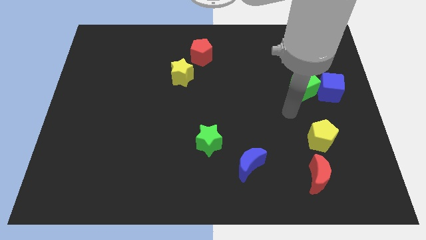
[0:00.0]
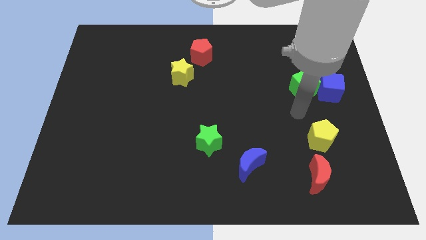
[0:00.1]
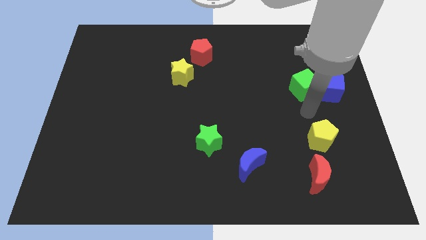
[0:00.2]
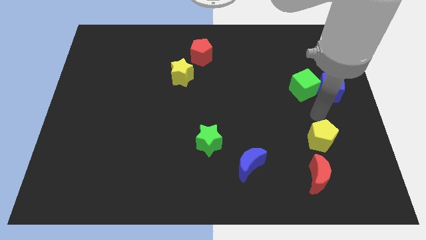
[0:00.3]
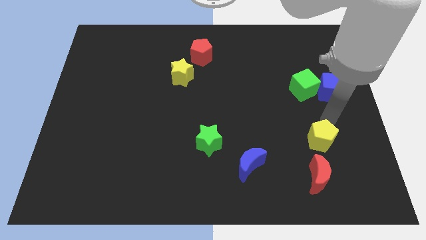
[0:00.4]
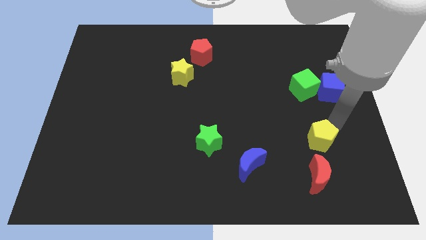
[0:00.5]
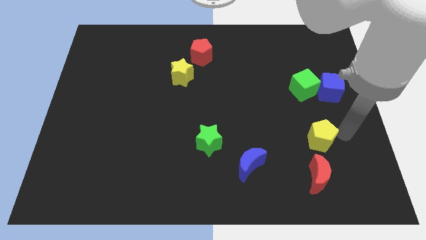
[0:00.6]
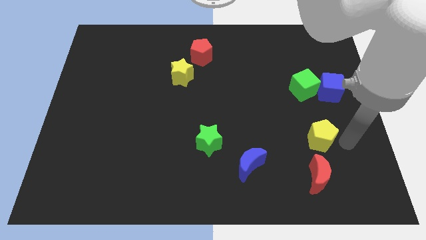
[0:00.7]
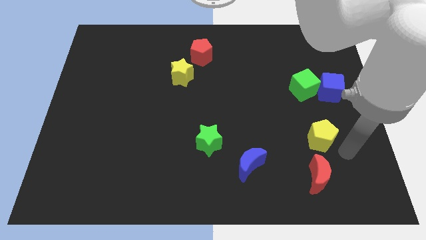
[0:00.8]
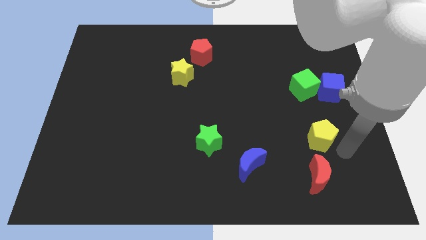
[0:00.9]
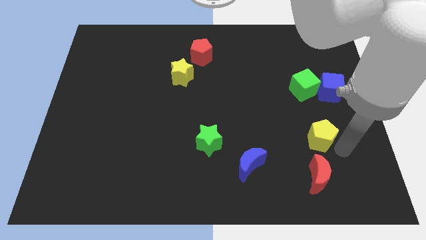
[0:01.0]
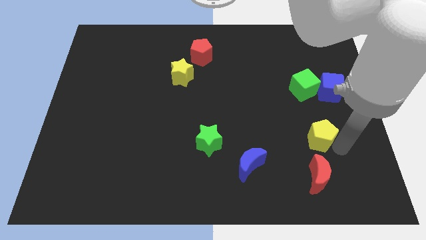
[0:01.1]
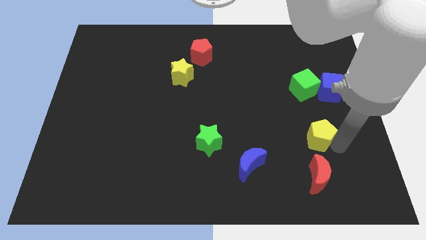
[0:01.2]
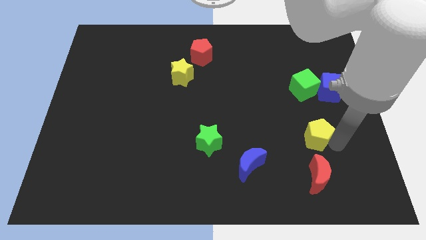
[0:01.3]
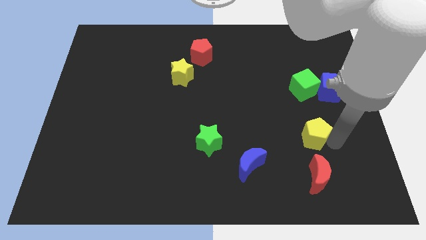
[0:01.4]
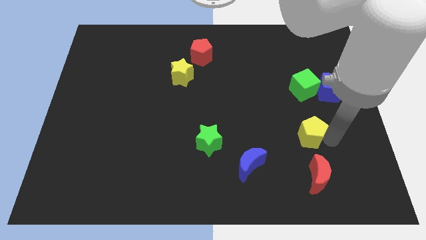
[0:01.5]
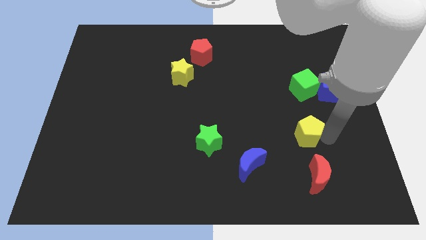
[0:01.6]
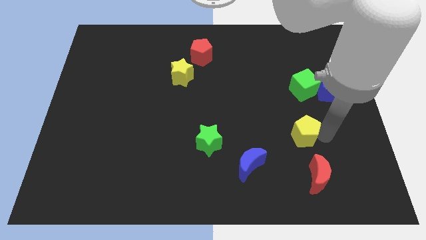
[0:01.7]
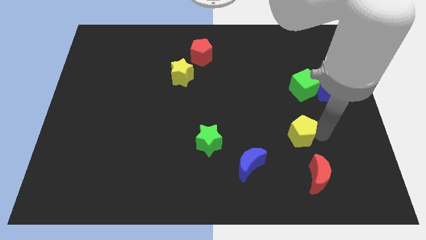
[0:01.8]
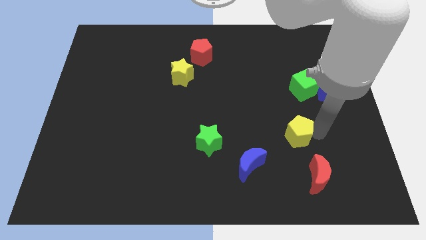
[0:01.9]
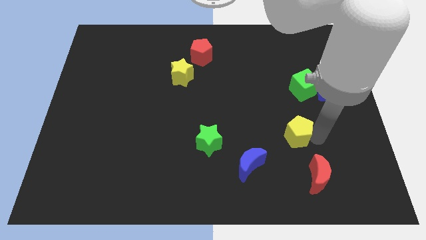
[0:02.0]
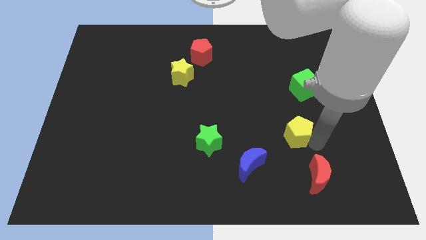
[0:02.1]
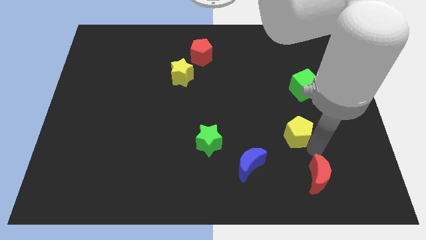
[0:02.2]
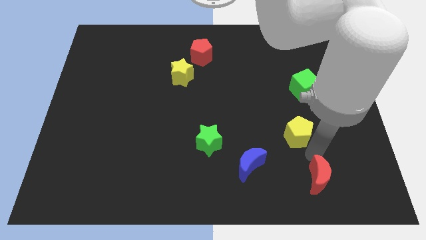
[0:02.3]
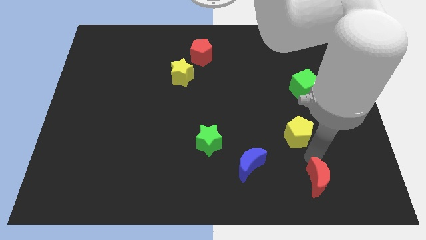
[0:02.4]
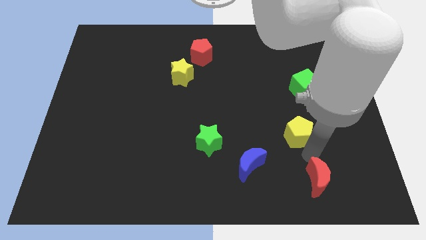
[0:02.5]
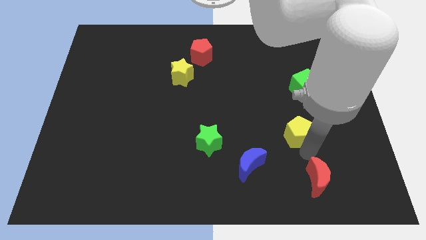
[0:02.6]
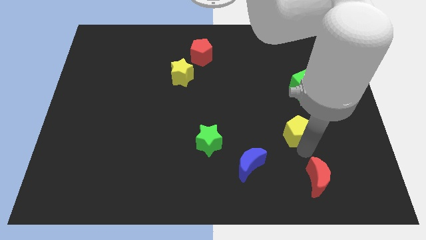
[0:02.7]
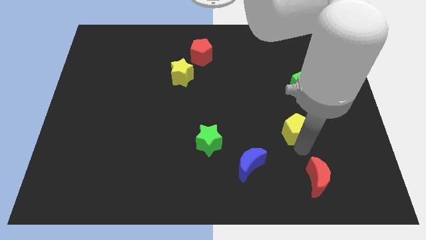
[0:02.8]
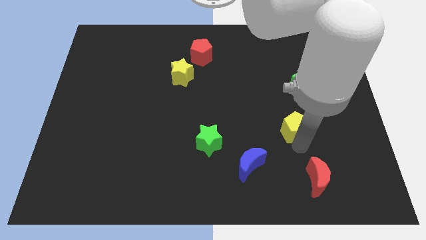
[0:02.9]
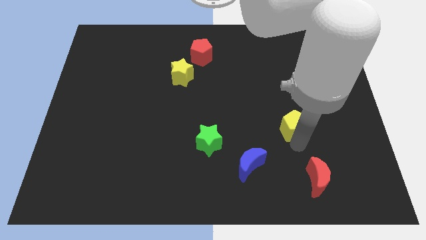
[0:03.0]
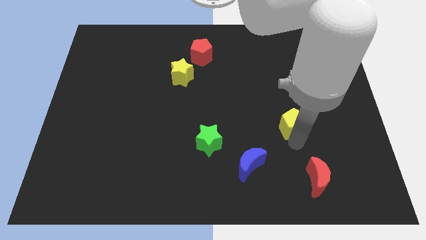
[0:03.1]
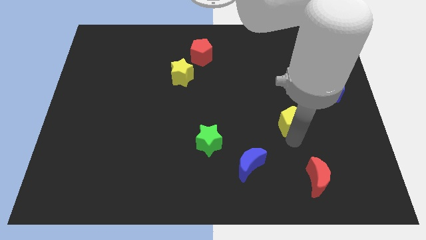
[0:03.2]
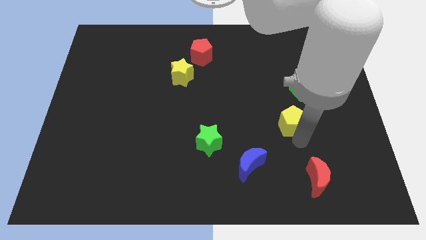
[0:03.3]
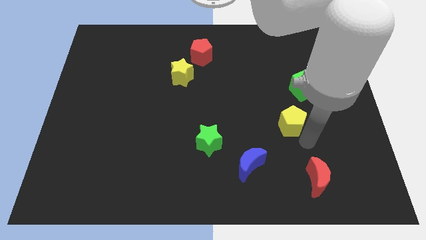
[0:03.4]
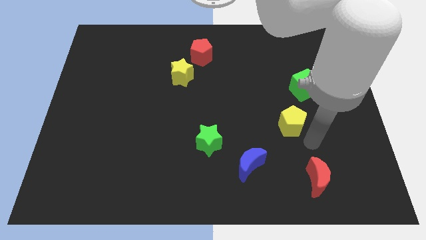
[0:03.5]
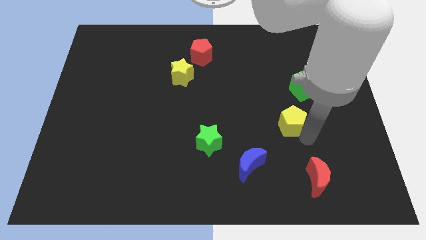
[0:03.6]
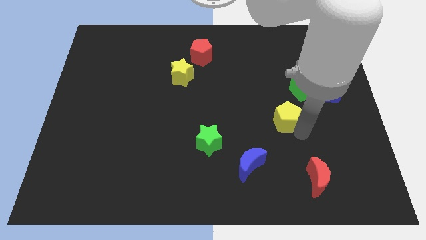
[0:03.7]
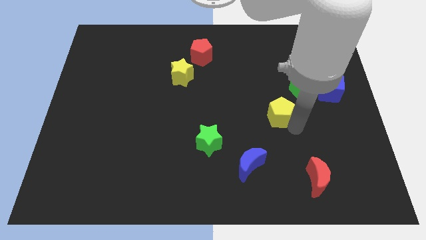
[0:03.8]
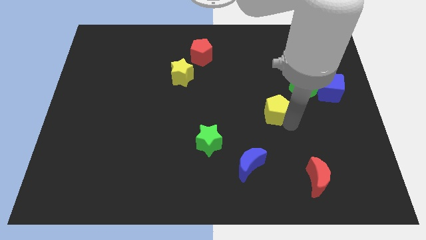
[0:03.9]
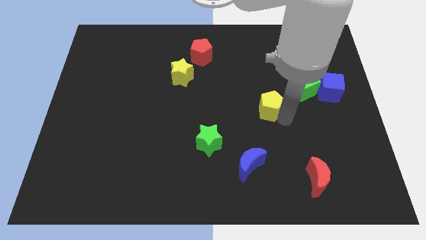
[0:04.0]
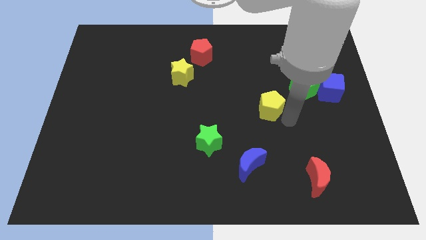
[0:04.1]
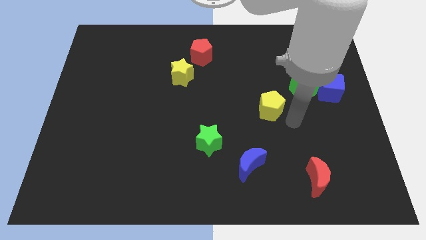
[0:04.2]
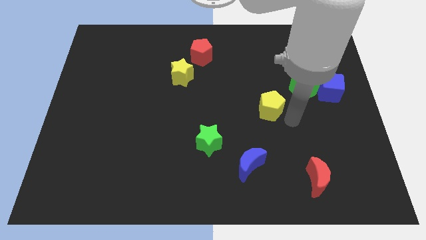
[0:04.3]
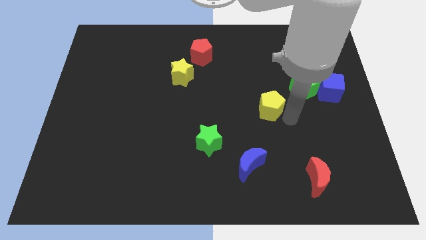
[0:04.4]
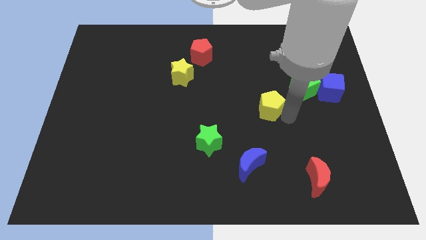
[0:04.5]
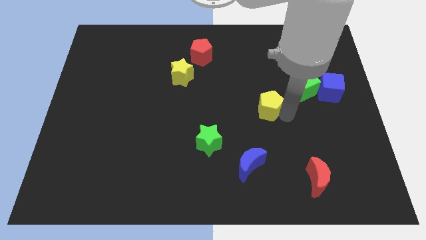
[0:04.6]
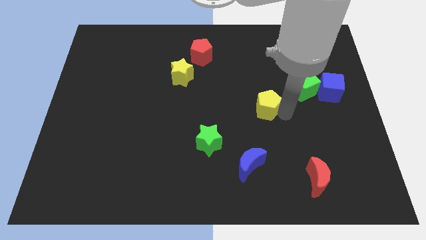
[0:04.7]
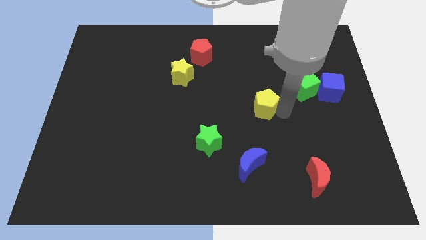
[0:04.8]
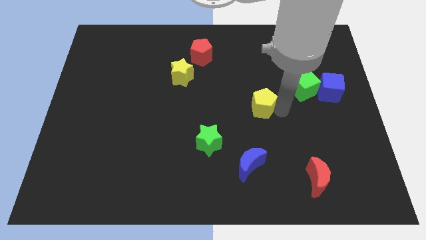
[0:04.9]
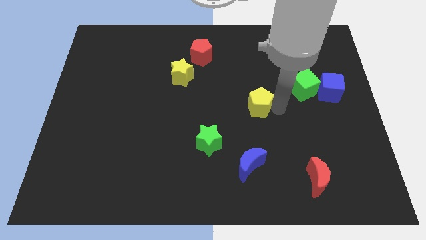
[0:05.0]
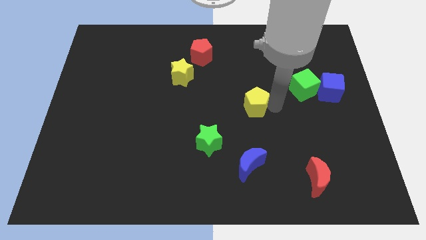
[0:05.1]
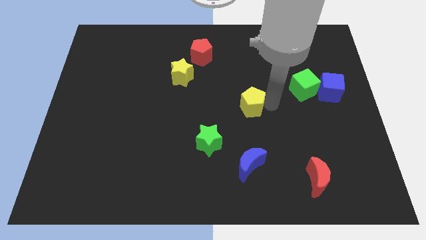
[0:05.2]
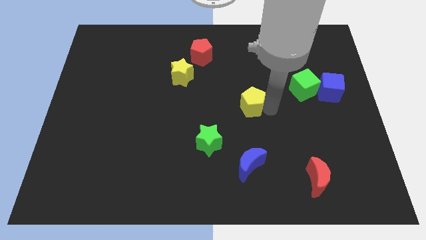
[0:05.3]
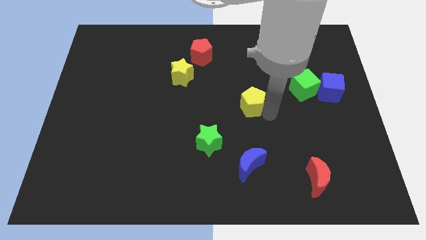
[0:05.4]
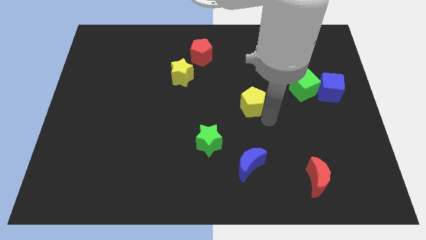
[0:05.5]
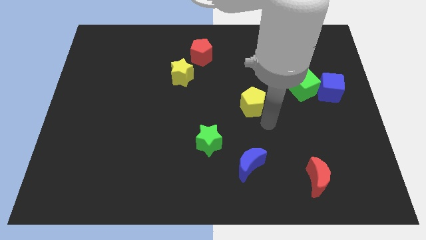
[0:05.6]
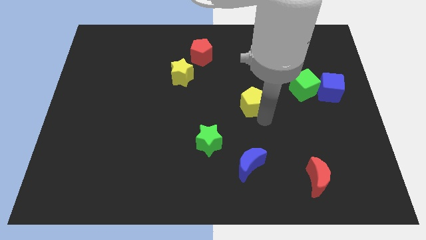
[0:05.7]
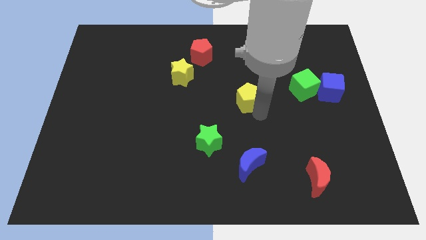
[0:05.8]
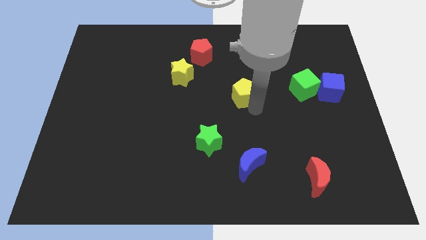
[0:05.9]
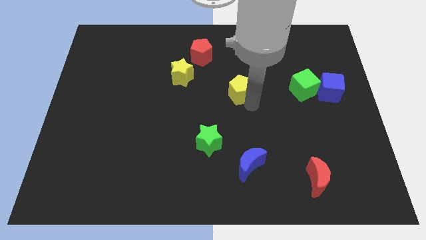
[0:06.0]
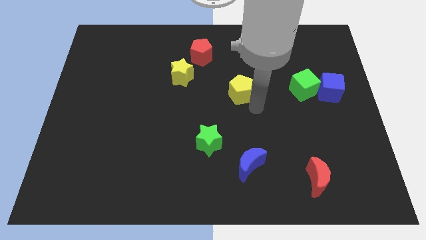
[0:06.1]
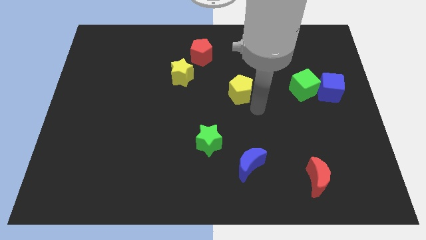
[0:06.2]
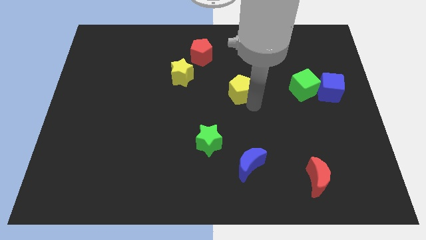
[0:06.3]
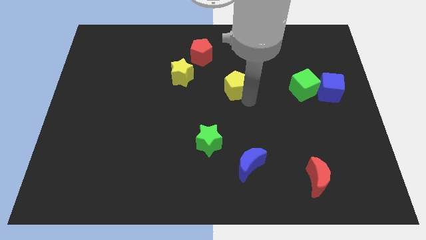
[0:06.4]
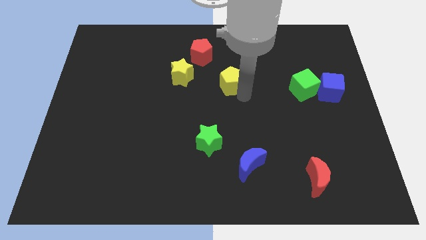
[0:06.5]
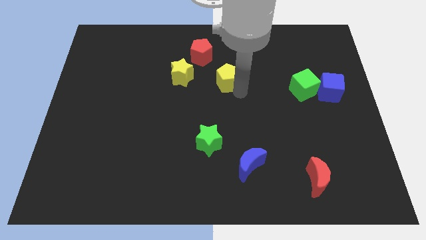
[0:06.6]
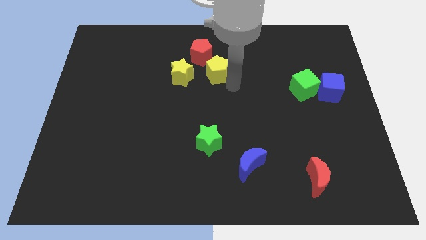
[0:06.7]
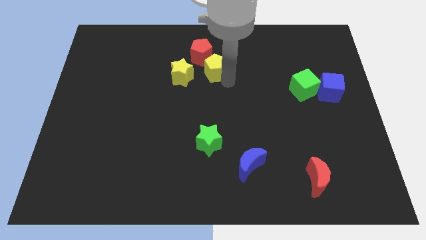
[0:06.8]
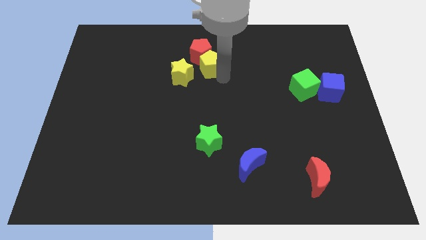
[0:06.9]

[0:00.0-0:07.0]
push the yellow pentagon to the red pentagon
